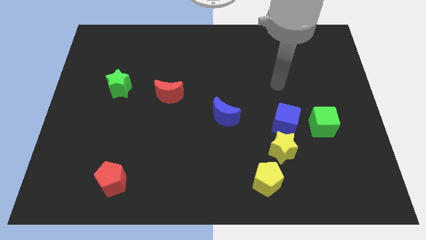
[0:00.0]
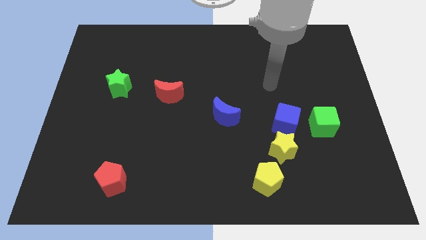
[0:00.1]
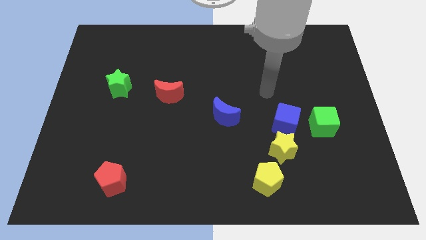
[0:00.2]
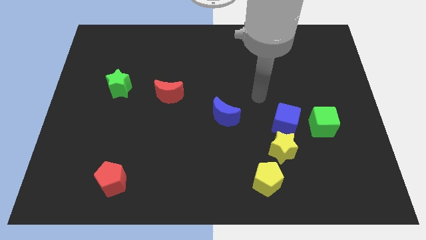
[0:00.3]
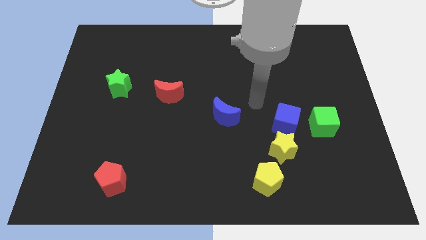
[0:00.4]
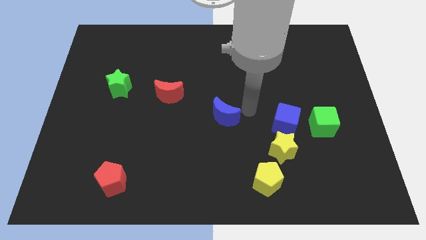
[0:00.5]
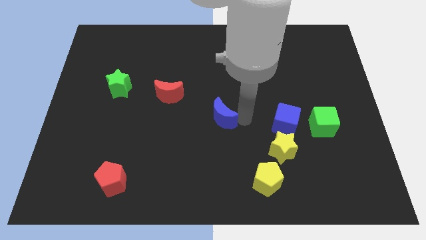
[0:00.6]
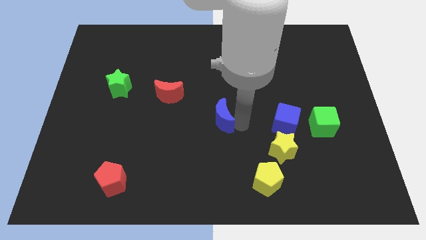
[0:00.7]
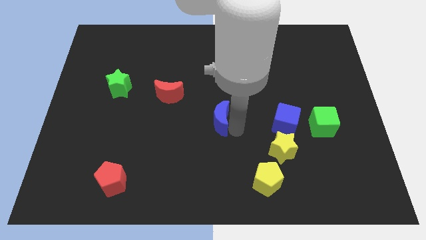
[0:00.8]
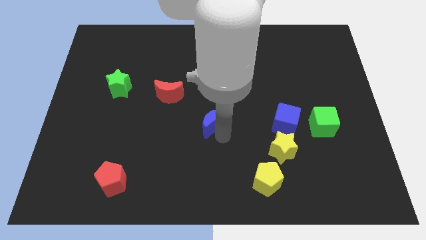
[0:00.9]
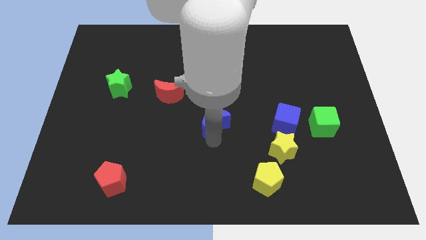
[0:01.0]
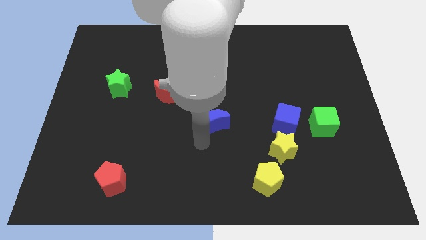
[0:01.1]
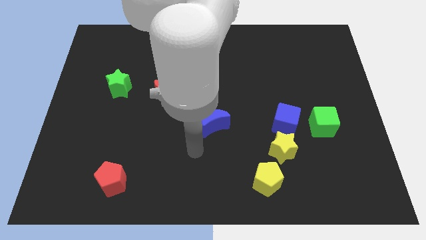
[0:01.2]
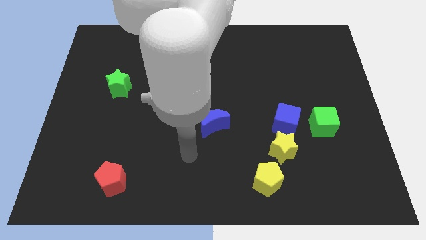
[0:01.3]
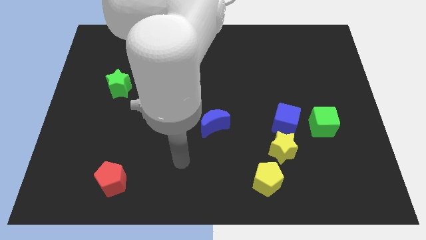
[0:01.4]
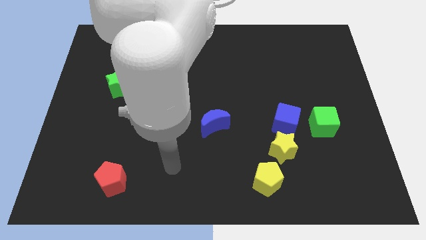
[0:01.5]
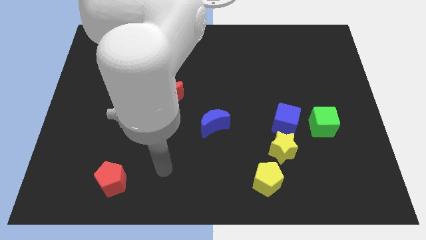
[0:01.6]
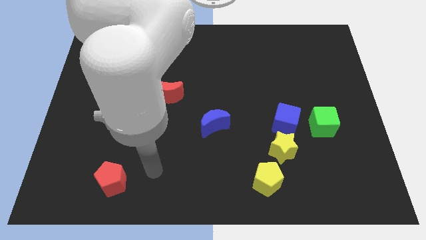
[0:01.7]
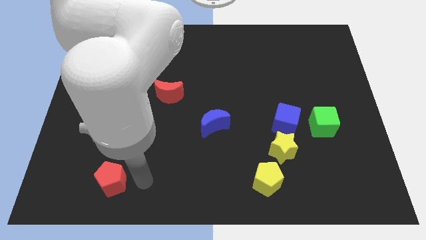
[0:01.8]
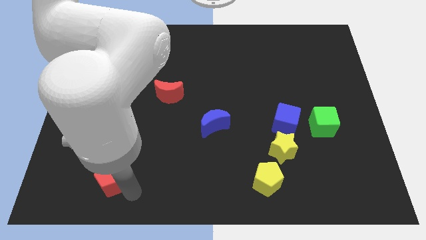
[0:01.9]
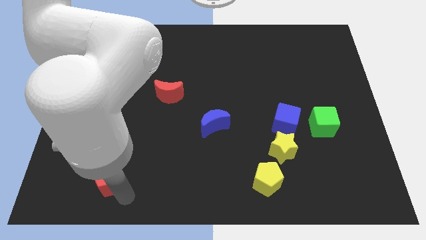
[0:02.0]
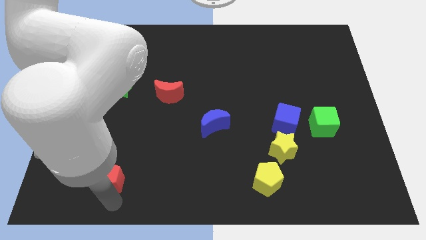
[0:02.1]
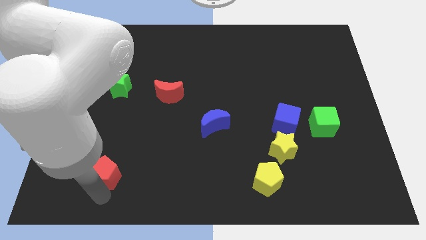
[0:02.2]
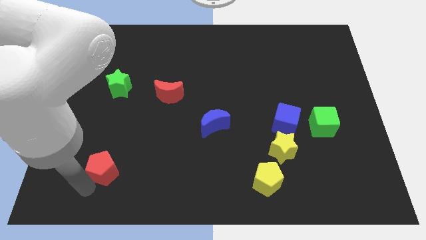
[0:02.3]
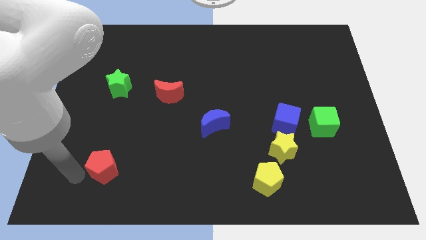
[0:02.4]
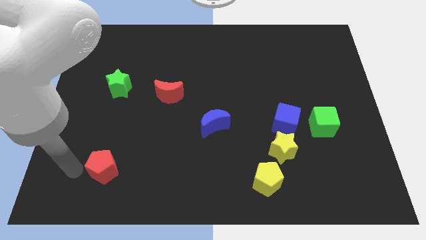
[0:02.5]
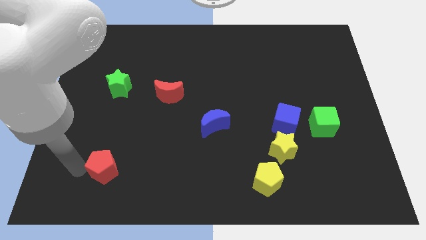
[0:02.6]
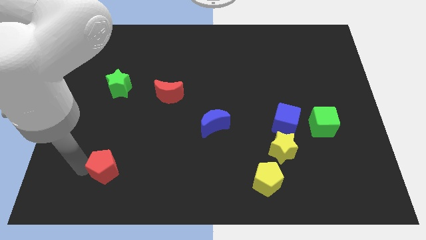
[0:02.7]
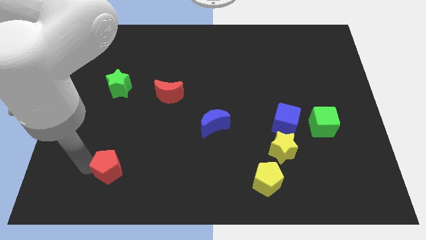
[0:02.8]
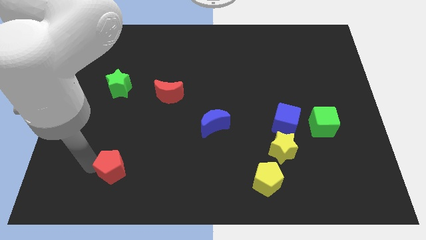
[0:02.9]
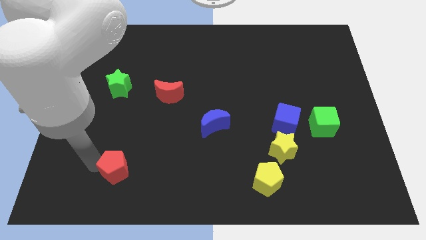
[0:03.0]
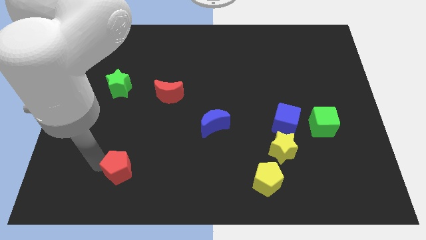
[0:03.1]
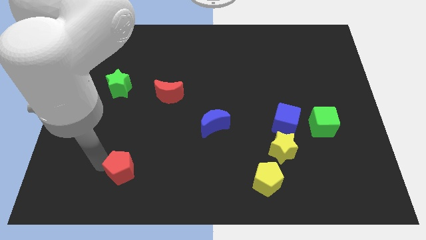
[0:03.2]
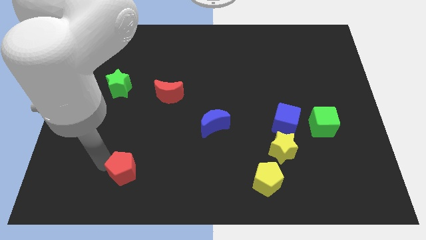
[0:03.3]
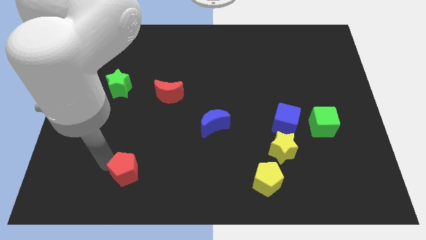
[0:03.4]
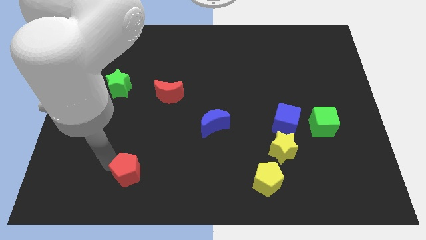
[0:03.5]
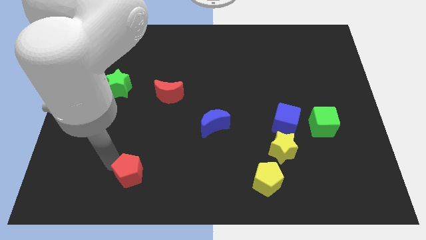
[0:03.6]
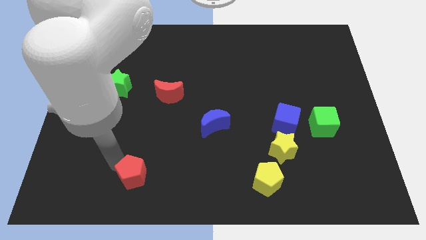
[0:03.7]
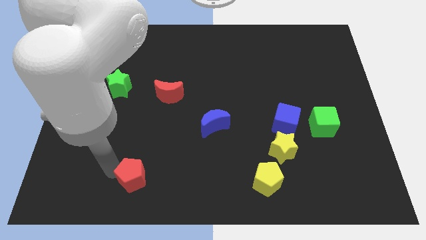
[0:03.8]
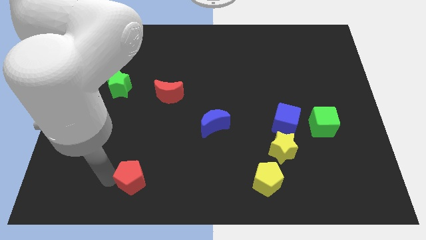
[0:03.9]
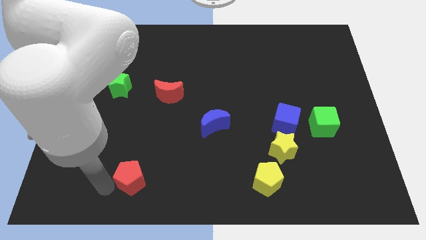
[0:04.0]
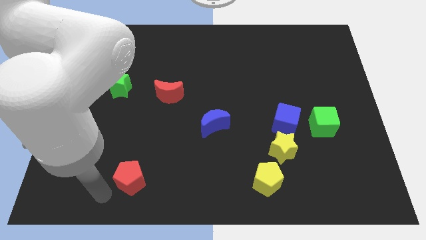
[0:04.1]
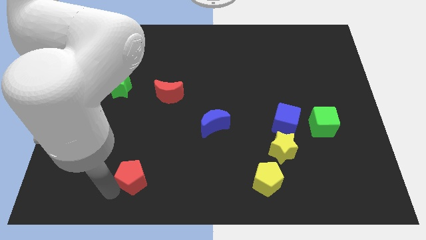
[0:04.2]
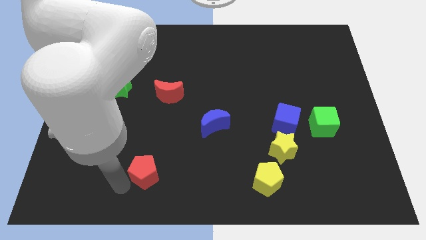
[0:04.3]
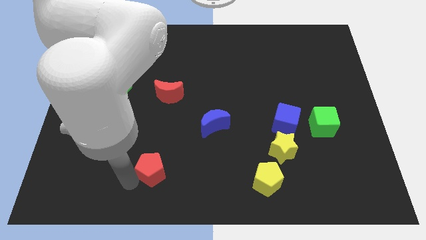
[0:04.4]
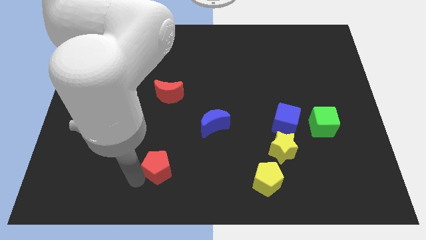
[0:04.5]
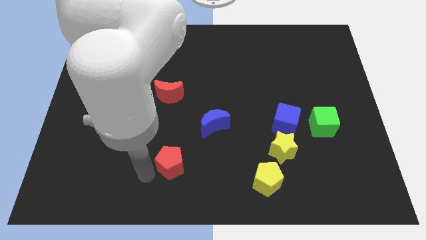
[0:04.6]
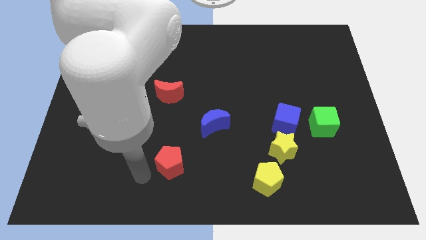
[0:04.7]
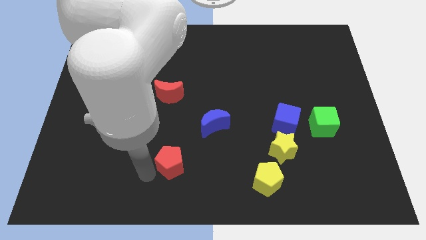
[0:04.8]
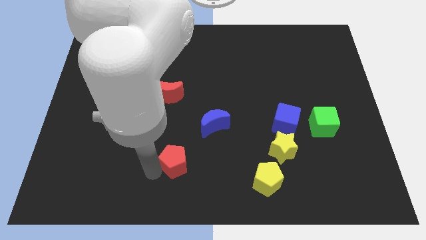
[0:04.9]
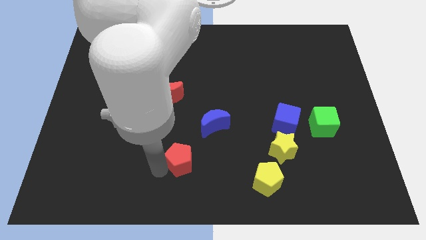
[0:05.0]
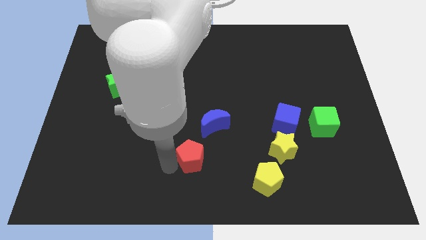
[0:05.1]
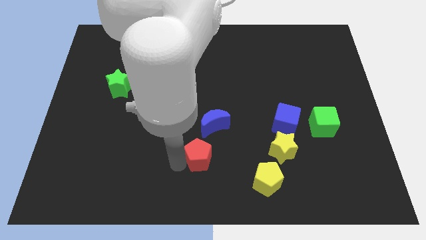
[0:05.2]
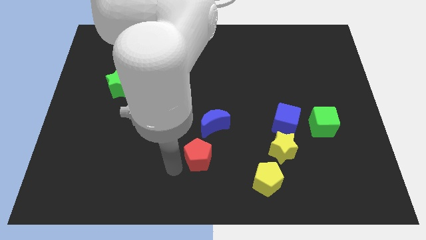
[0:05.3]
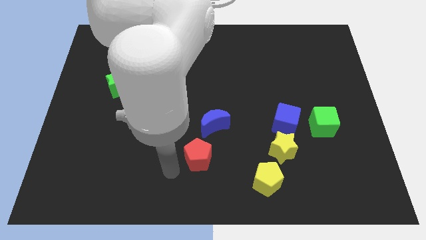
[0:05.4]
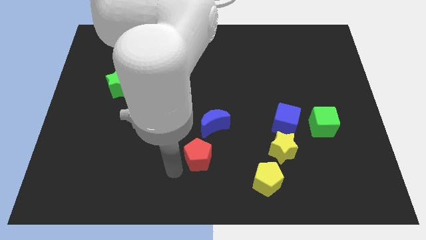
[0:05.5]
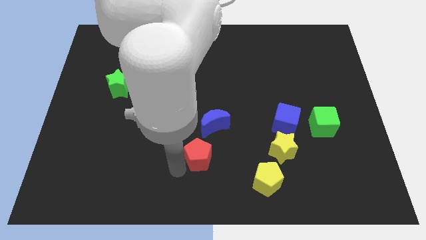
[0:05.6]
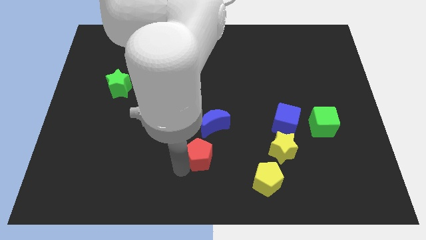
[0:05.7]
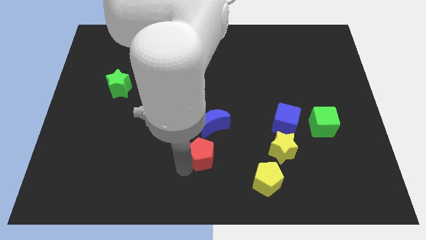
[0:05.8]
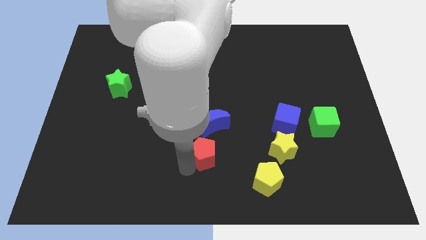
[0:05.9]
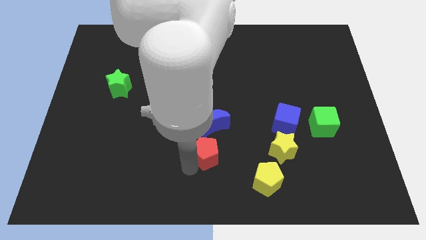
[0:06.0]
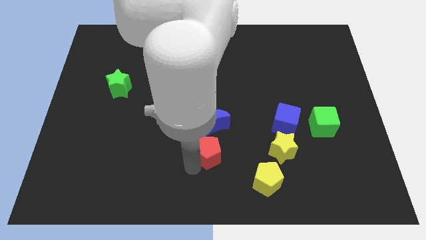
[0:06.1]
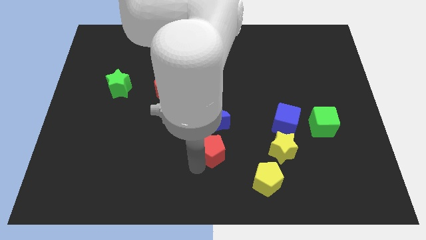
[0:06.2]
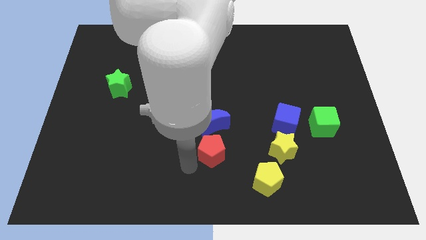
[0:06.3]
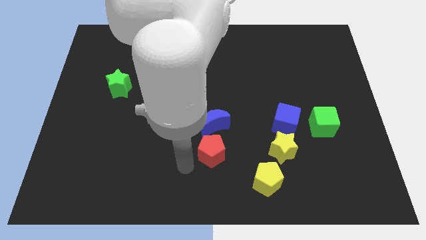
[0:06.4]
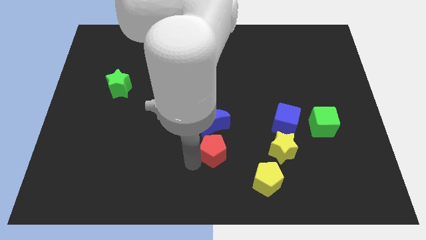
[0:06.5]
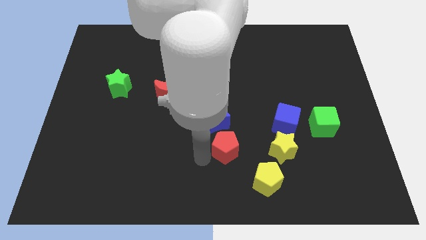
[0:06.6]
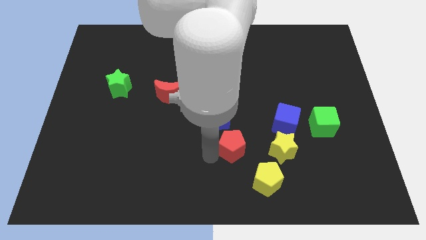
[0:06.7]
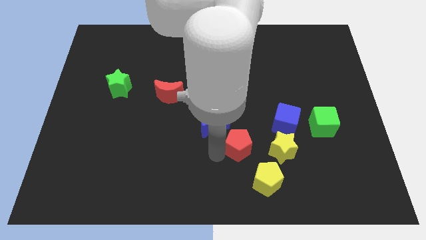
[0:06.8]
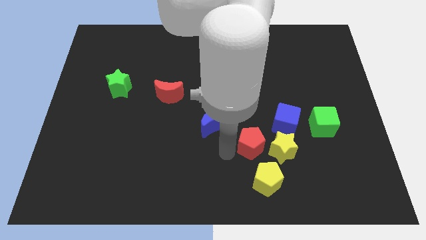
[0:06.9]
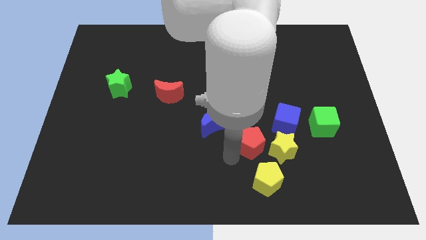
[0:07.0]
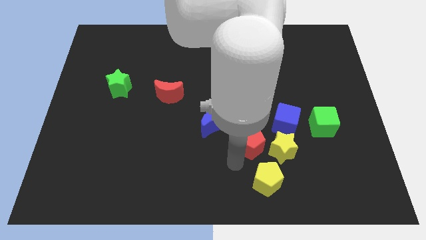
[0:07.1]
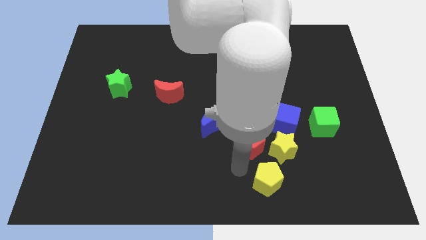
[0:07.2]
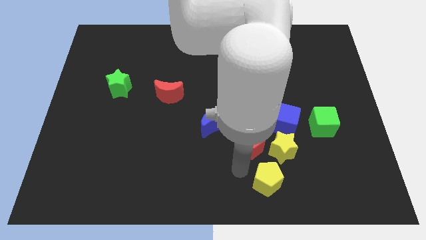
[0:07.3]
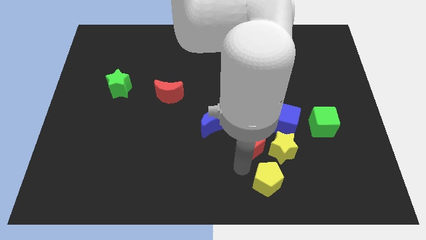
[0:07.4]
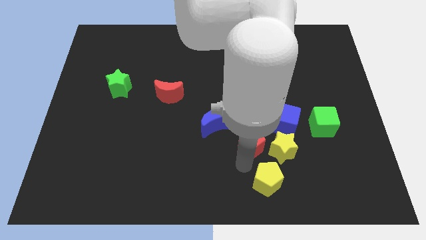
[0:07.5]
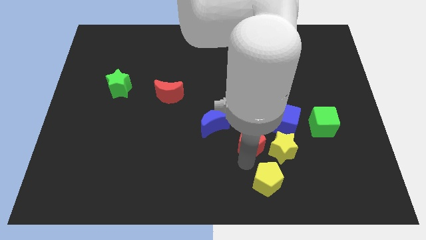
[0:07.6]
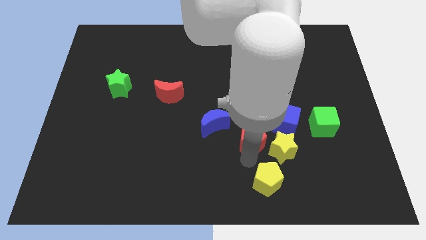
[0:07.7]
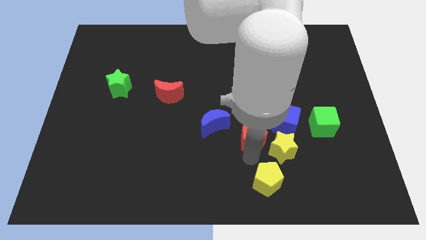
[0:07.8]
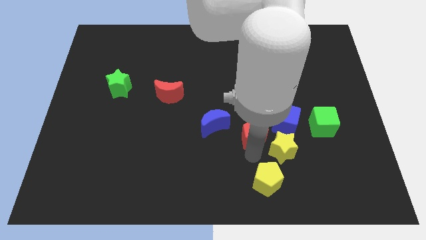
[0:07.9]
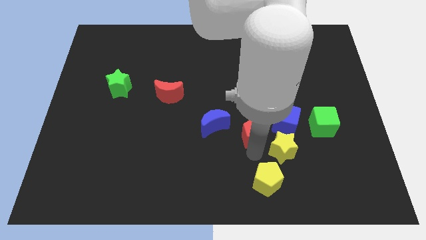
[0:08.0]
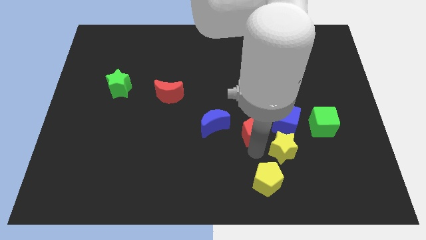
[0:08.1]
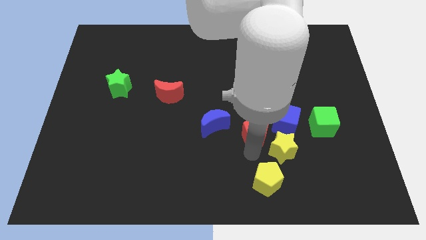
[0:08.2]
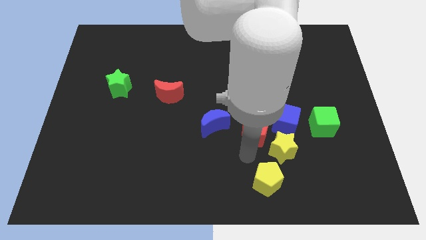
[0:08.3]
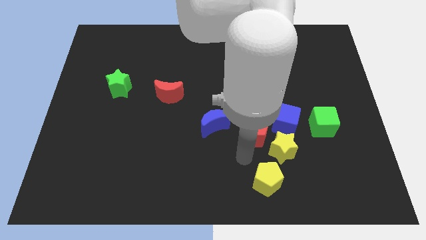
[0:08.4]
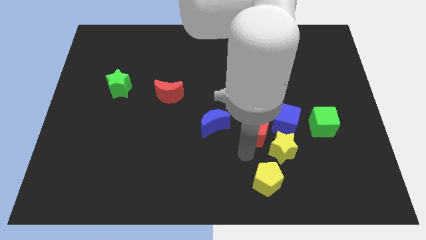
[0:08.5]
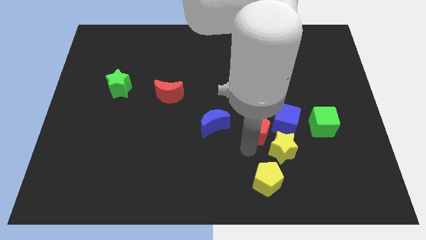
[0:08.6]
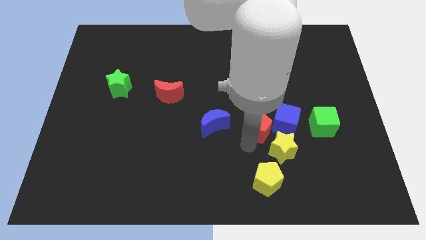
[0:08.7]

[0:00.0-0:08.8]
put the red pentagon above the yellow star
